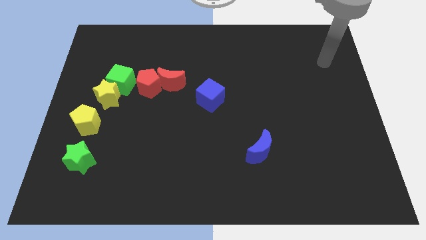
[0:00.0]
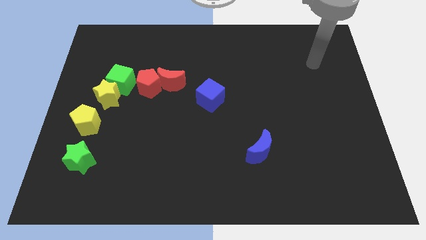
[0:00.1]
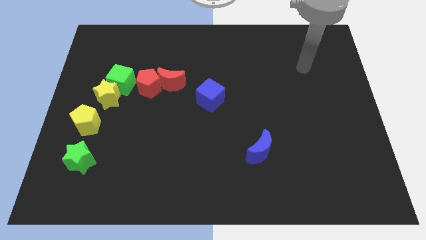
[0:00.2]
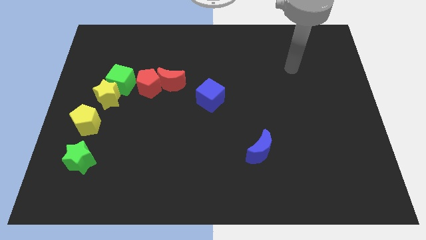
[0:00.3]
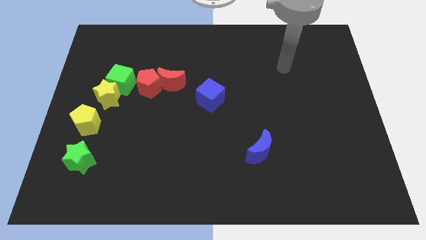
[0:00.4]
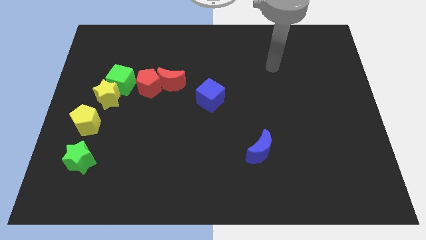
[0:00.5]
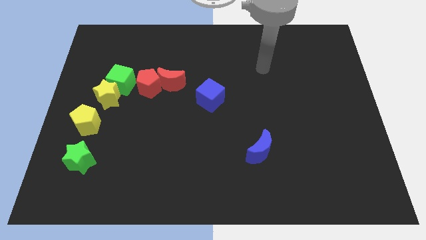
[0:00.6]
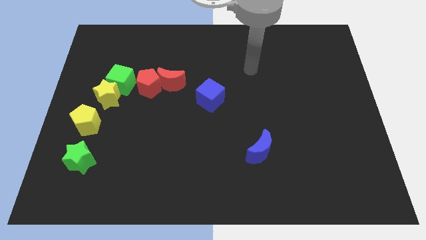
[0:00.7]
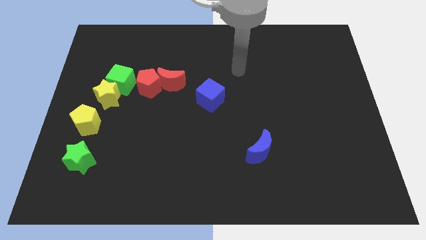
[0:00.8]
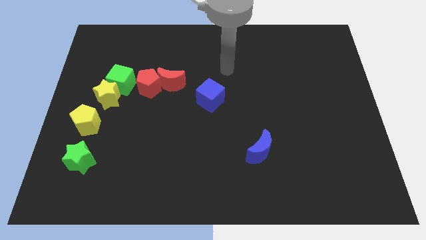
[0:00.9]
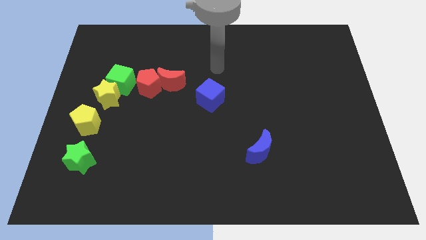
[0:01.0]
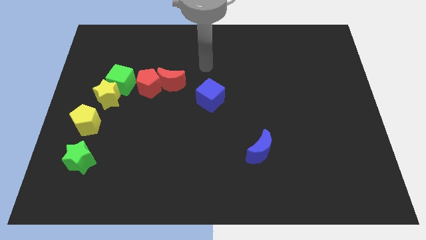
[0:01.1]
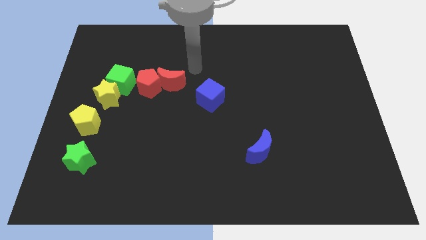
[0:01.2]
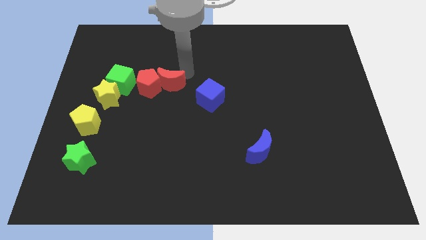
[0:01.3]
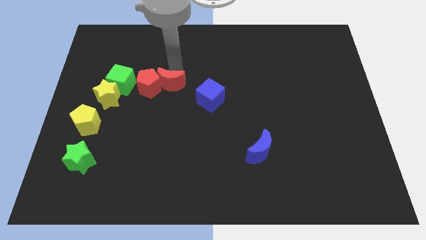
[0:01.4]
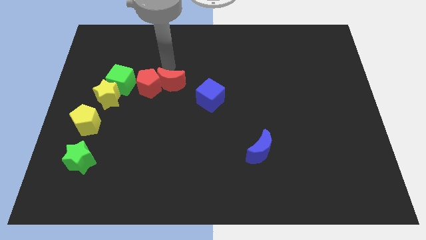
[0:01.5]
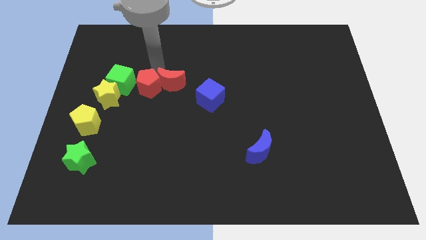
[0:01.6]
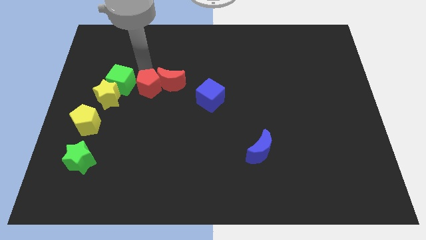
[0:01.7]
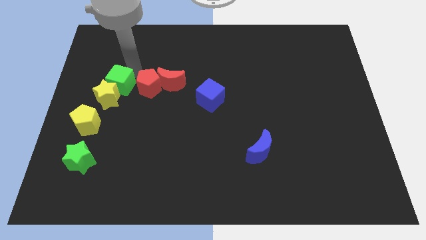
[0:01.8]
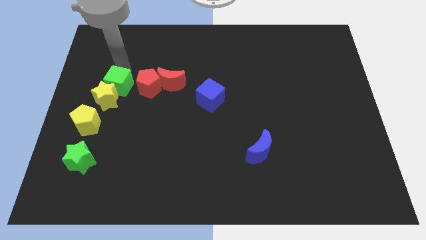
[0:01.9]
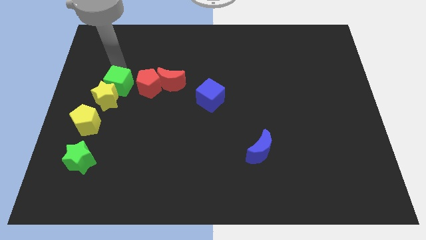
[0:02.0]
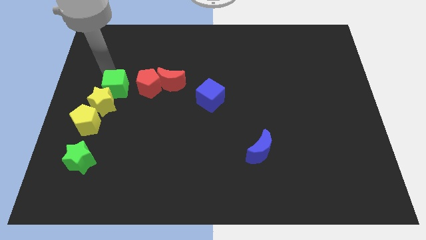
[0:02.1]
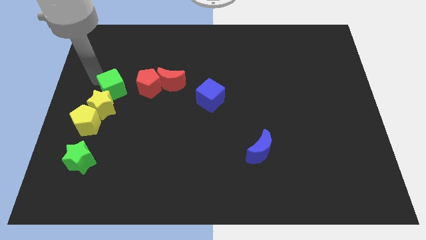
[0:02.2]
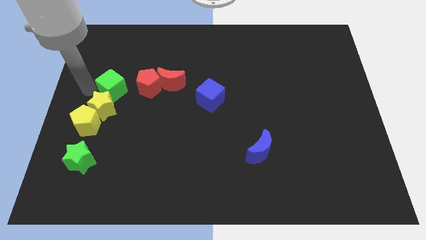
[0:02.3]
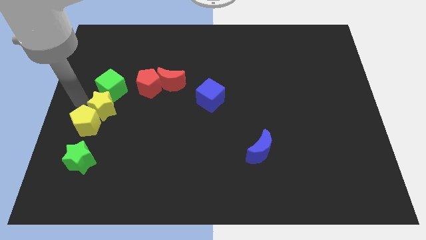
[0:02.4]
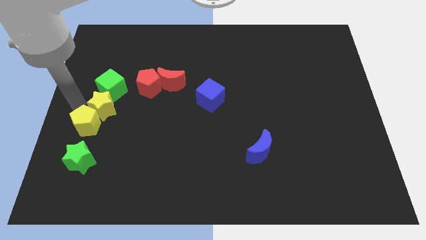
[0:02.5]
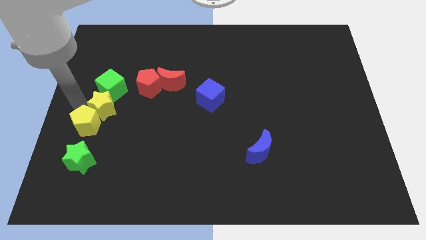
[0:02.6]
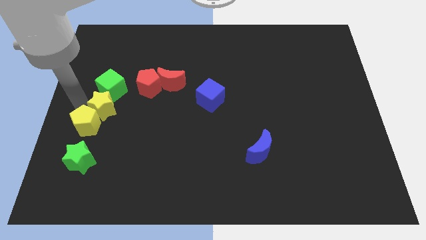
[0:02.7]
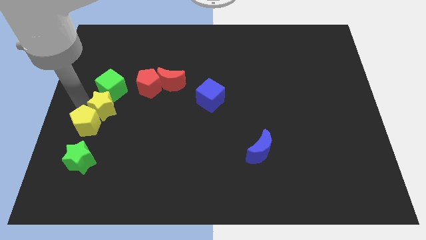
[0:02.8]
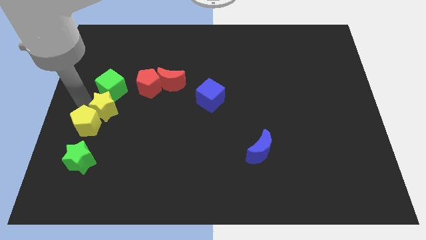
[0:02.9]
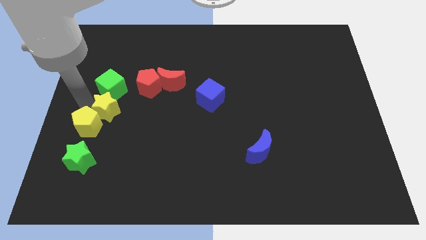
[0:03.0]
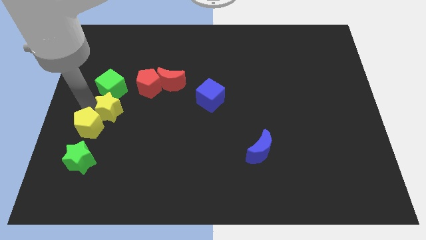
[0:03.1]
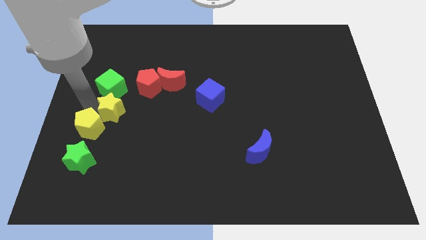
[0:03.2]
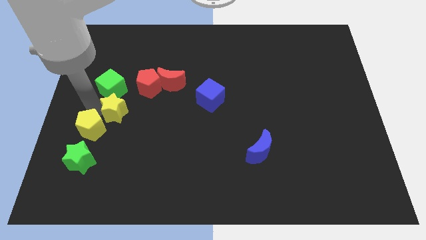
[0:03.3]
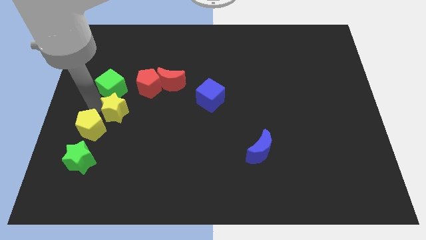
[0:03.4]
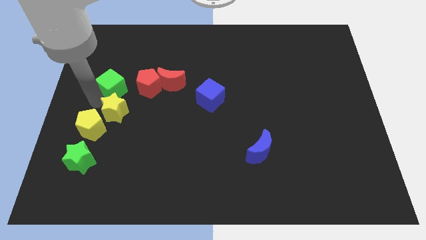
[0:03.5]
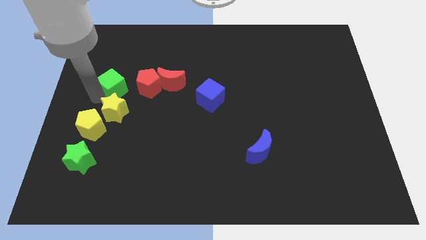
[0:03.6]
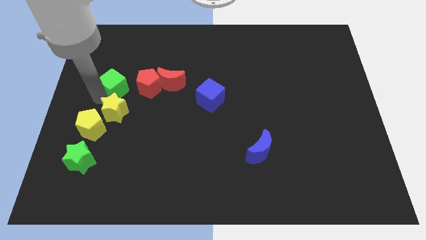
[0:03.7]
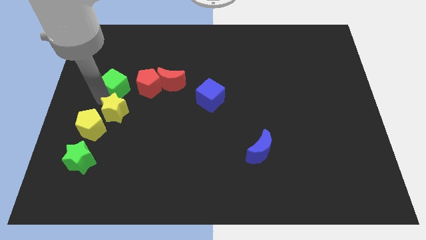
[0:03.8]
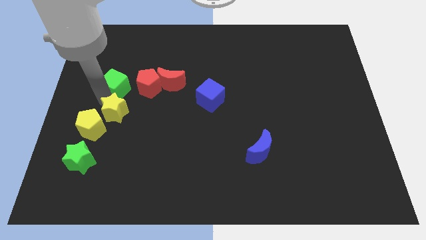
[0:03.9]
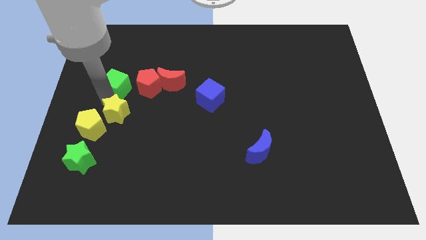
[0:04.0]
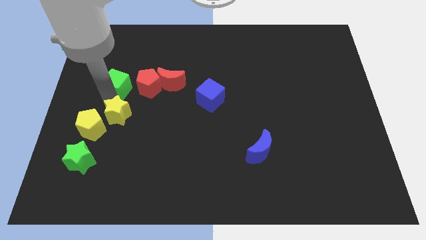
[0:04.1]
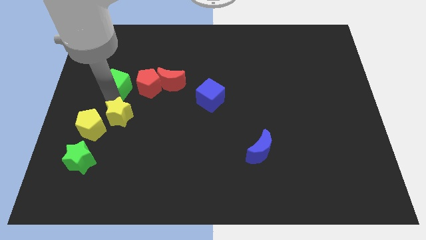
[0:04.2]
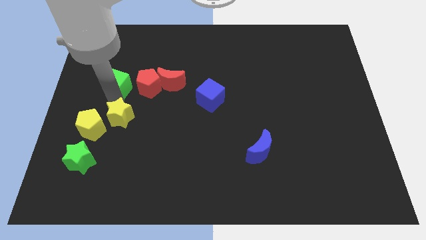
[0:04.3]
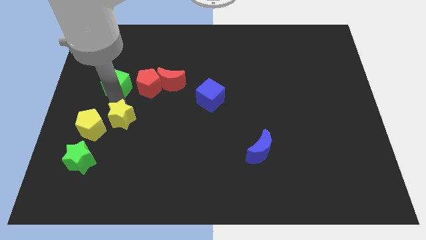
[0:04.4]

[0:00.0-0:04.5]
slightly push the yellow star diagonally downwards and right

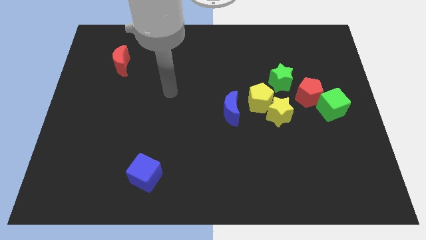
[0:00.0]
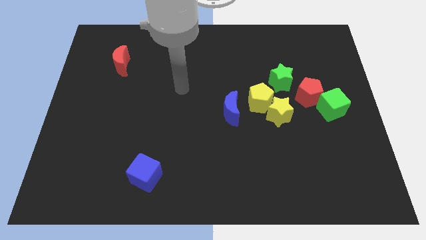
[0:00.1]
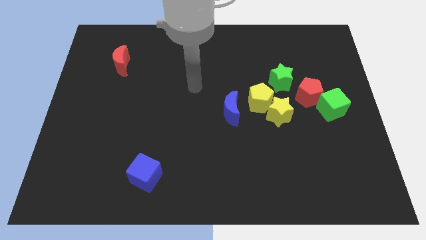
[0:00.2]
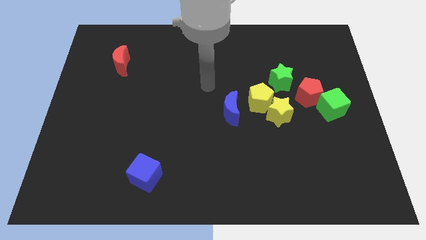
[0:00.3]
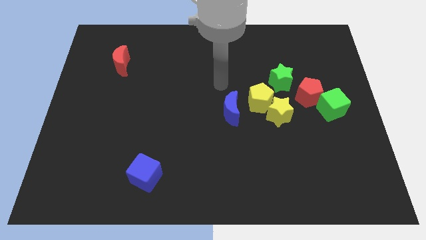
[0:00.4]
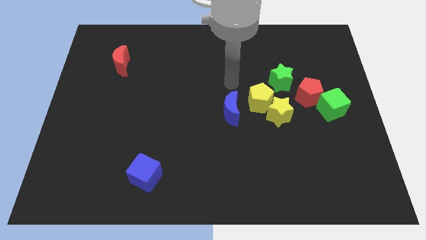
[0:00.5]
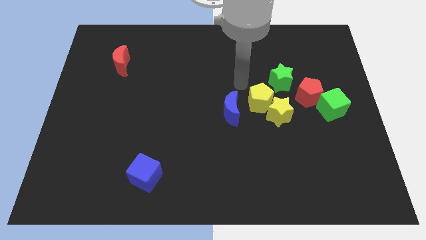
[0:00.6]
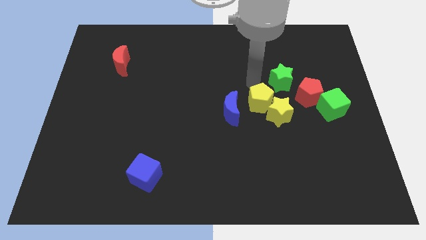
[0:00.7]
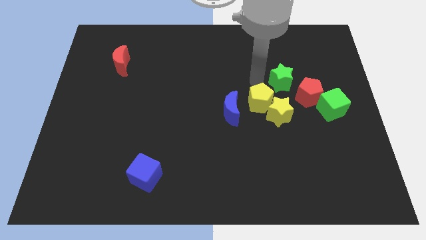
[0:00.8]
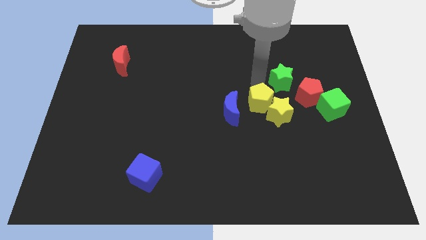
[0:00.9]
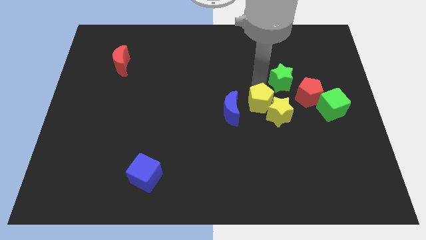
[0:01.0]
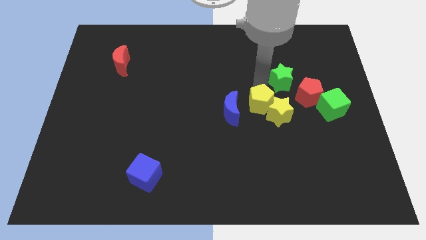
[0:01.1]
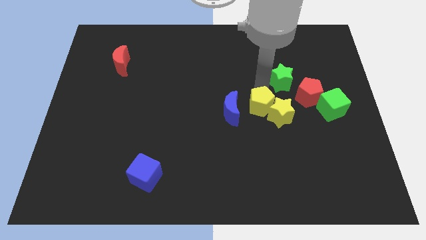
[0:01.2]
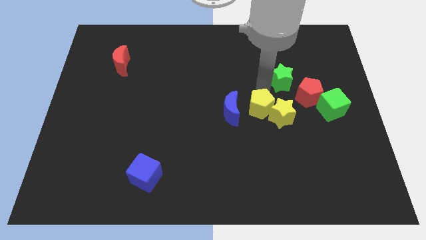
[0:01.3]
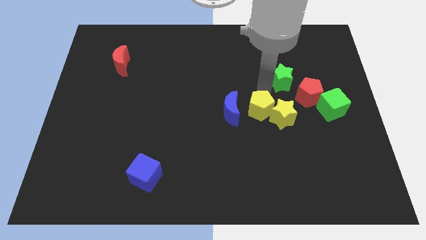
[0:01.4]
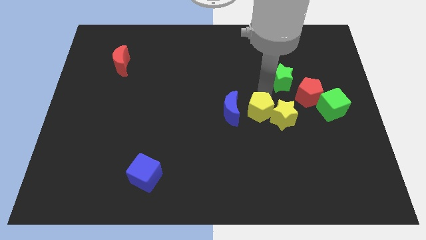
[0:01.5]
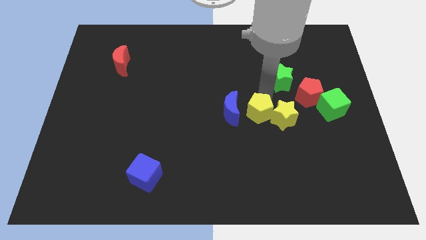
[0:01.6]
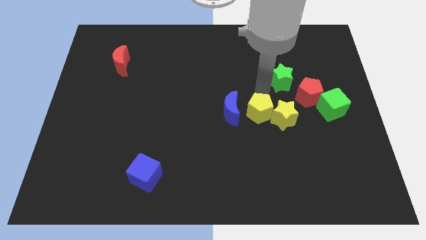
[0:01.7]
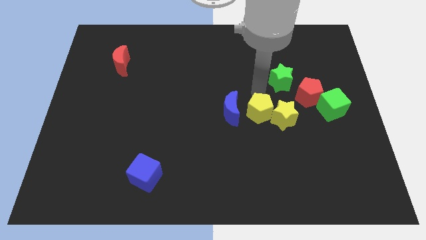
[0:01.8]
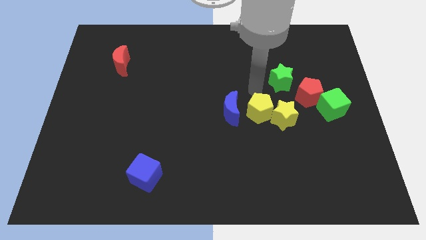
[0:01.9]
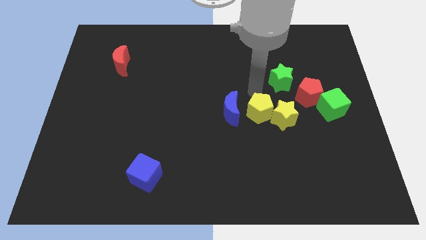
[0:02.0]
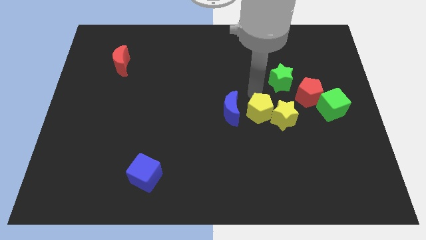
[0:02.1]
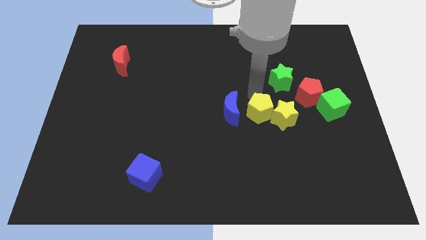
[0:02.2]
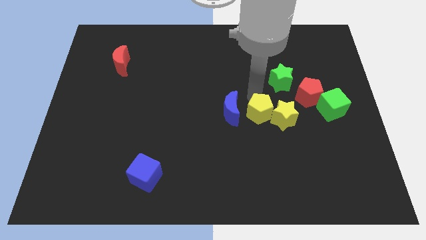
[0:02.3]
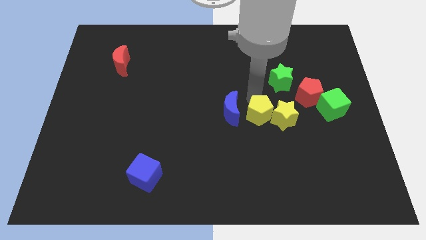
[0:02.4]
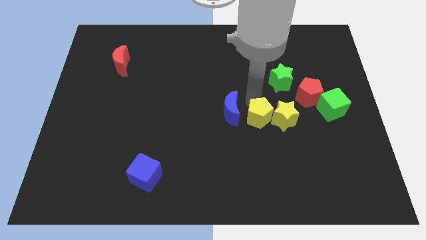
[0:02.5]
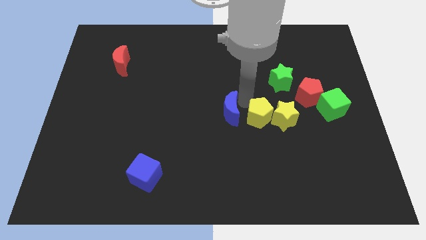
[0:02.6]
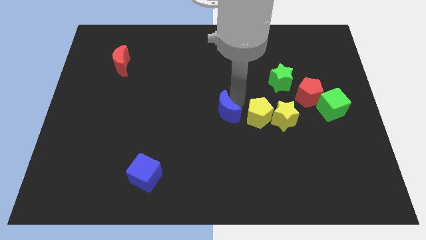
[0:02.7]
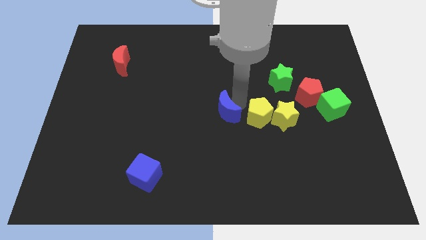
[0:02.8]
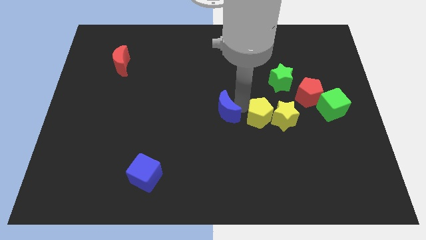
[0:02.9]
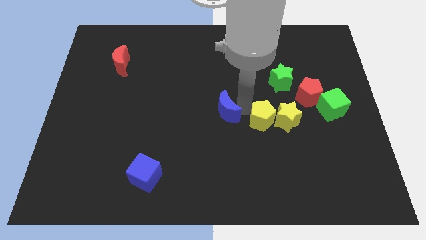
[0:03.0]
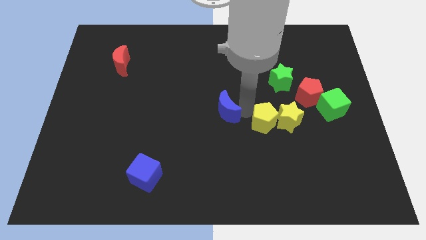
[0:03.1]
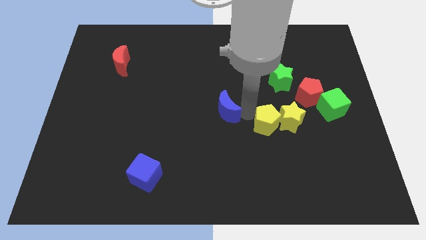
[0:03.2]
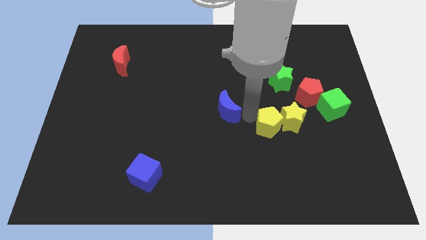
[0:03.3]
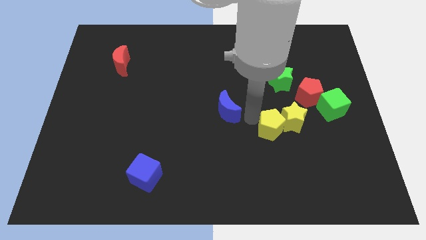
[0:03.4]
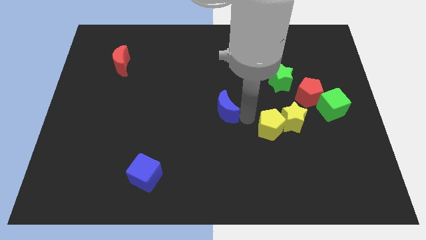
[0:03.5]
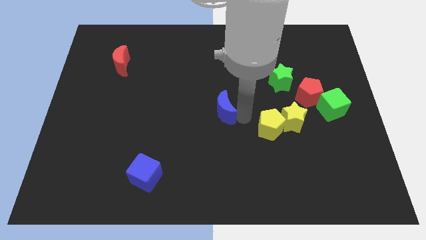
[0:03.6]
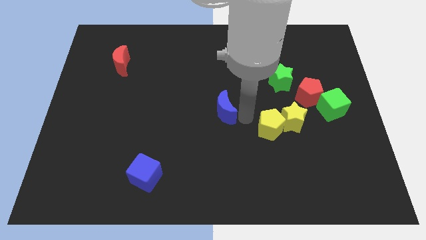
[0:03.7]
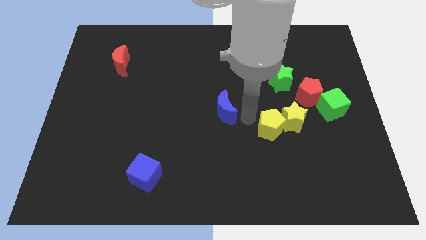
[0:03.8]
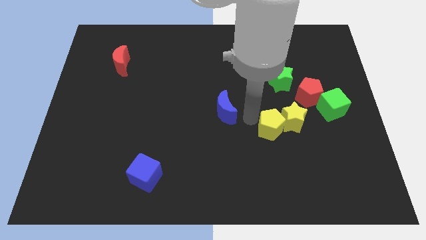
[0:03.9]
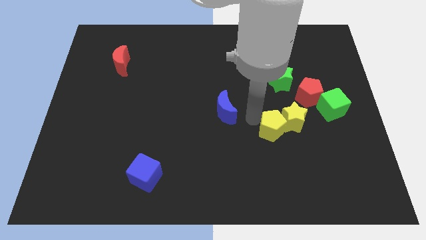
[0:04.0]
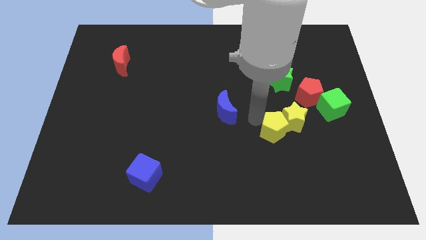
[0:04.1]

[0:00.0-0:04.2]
slide the yellow pentagon a bit down and then right
